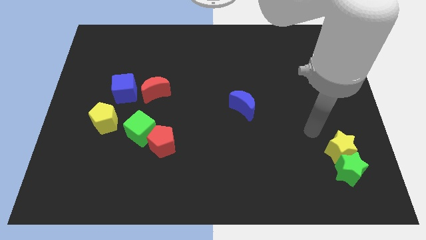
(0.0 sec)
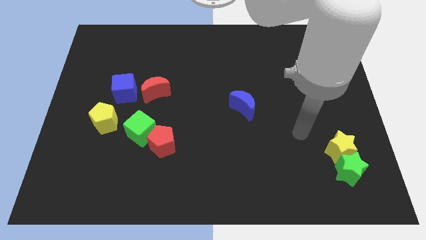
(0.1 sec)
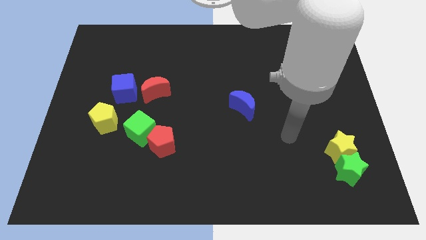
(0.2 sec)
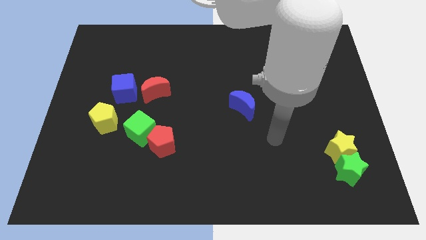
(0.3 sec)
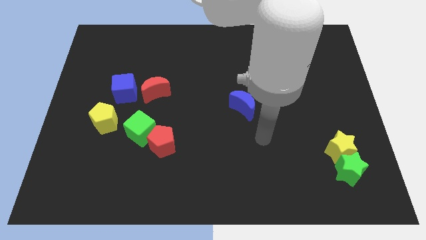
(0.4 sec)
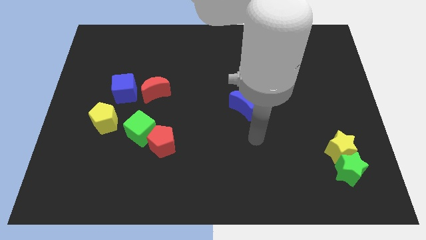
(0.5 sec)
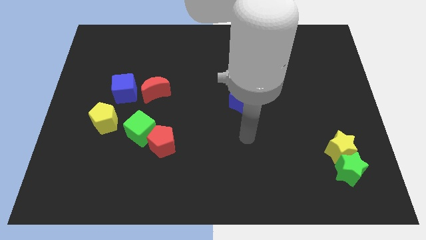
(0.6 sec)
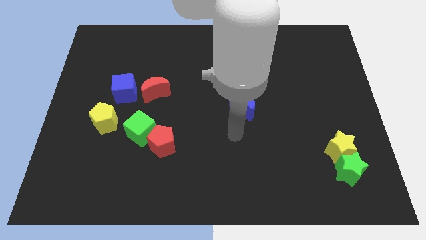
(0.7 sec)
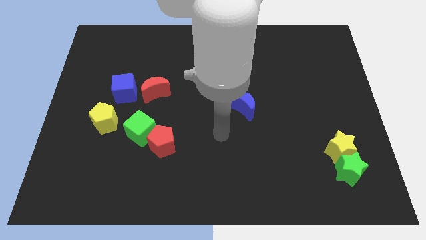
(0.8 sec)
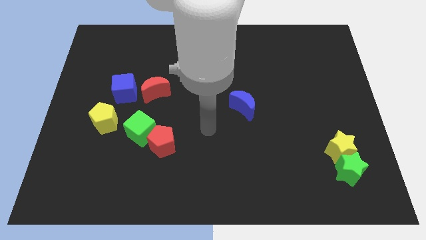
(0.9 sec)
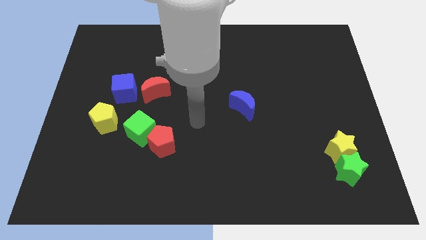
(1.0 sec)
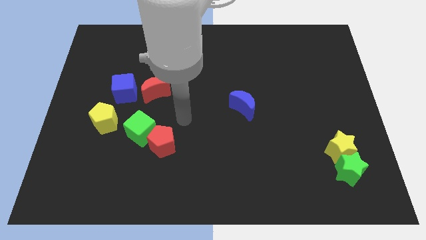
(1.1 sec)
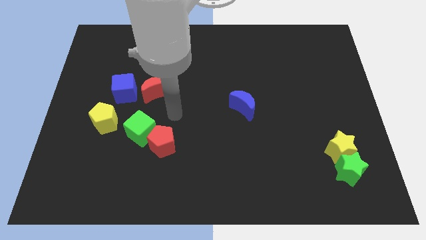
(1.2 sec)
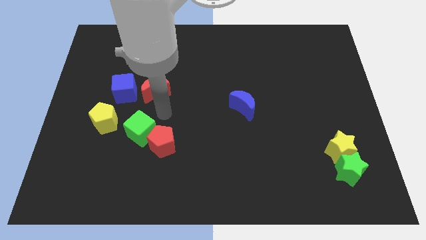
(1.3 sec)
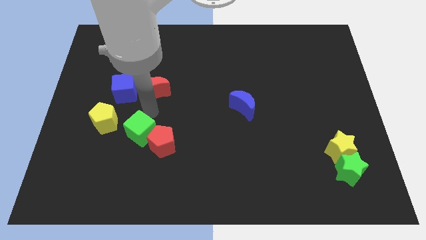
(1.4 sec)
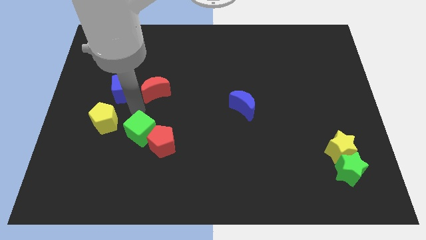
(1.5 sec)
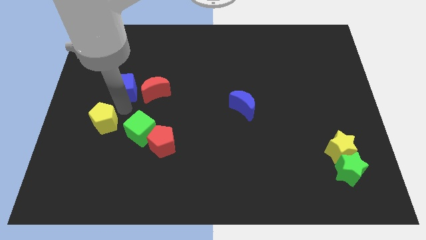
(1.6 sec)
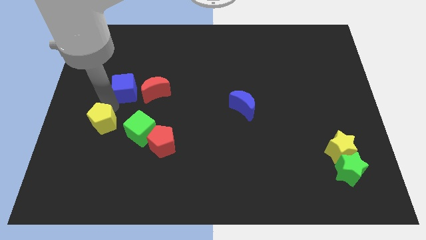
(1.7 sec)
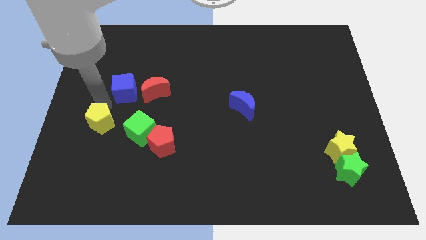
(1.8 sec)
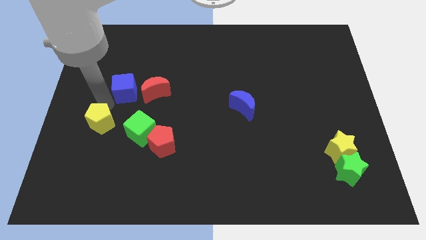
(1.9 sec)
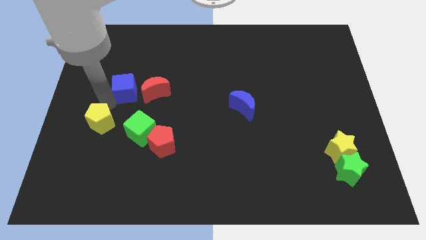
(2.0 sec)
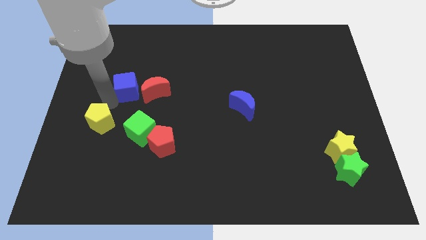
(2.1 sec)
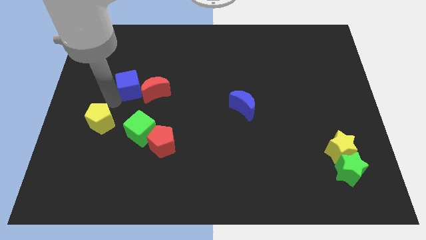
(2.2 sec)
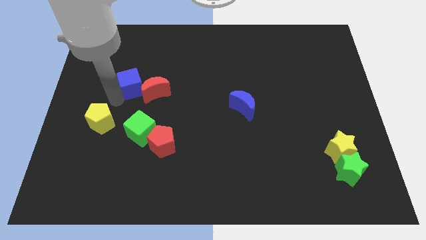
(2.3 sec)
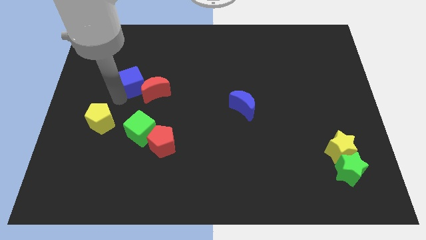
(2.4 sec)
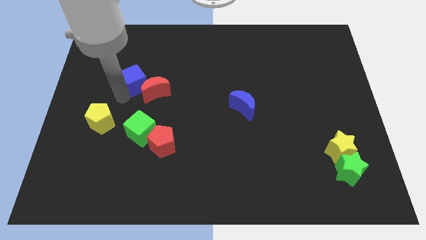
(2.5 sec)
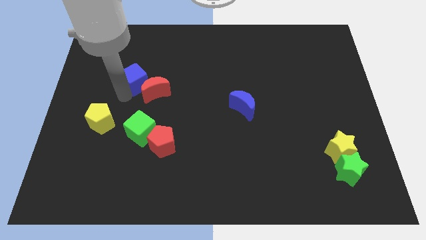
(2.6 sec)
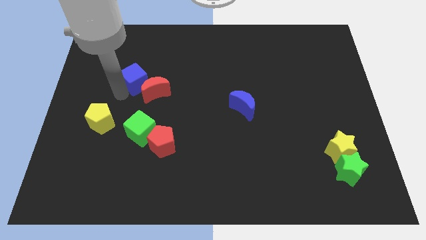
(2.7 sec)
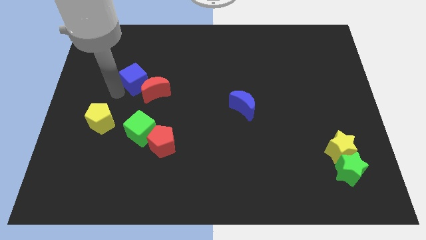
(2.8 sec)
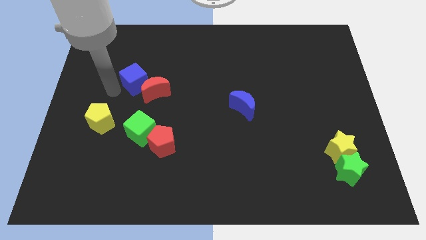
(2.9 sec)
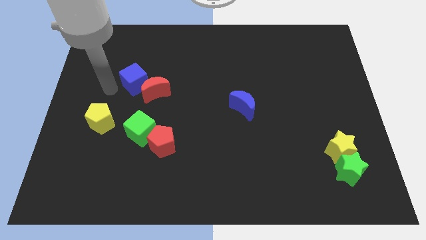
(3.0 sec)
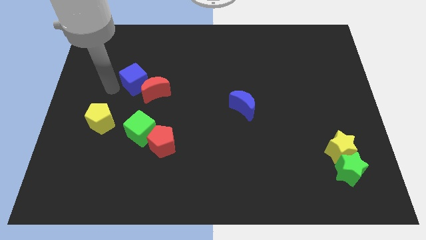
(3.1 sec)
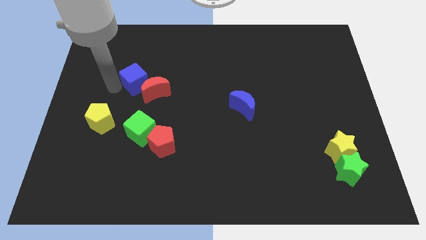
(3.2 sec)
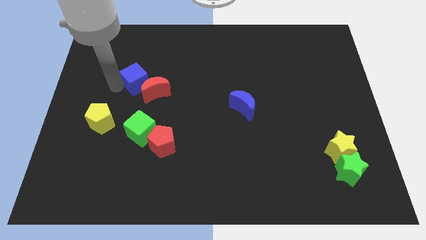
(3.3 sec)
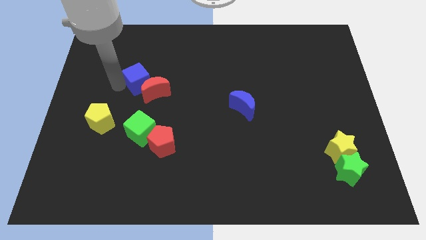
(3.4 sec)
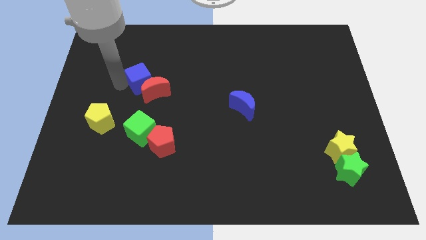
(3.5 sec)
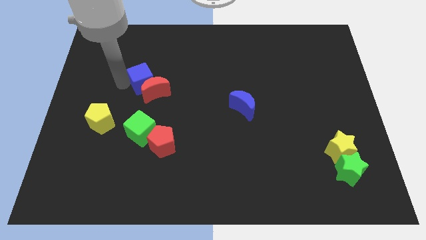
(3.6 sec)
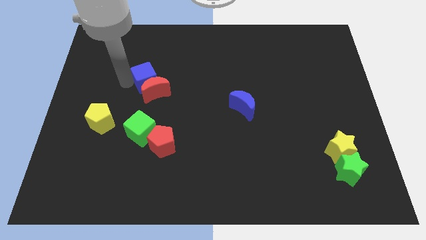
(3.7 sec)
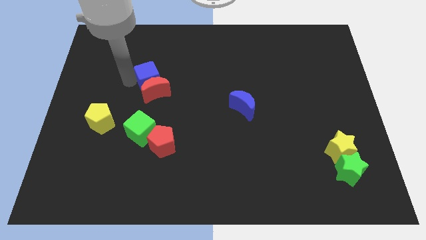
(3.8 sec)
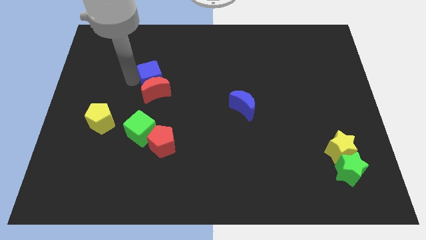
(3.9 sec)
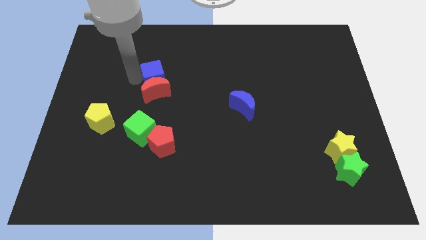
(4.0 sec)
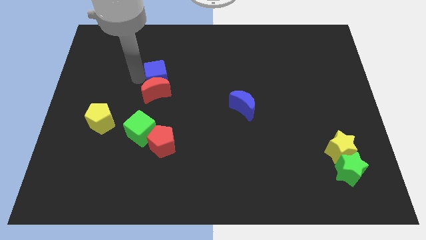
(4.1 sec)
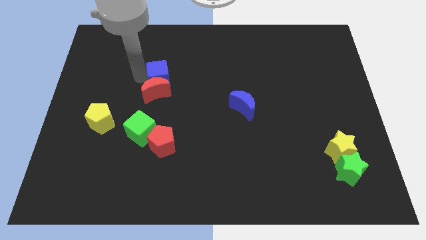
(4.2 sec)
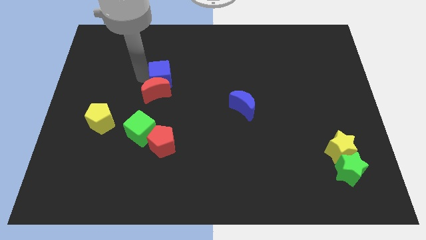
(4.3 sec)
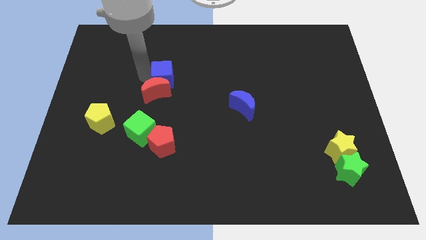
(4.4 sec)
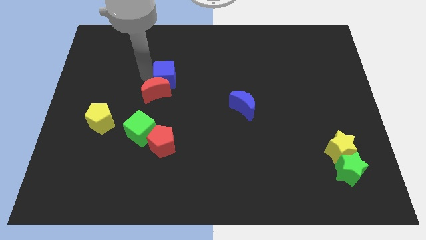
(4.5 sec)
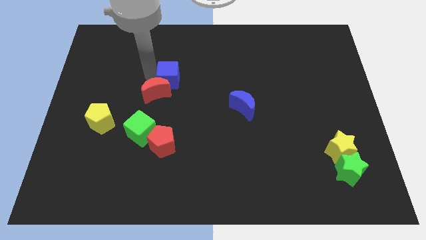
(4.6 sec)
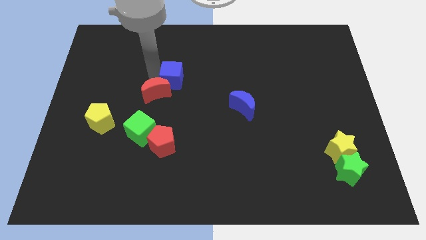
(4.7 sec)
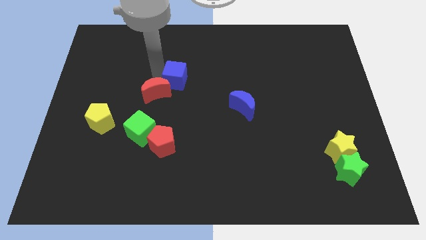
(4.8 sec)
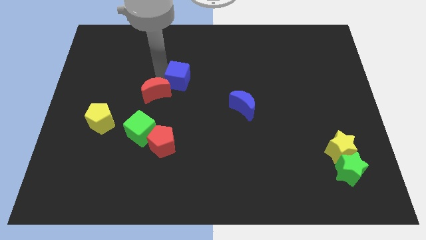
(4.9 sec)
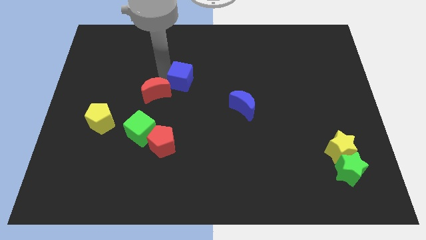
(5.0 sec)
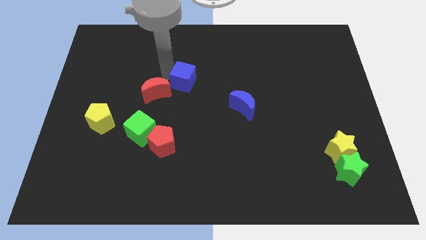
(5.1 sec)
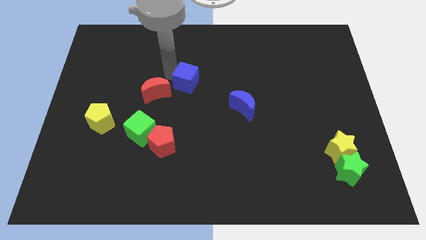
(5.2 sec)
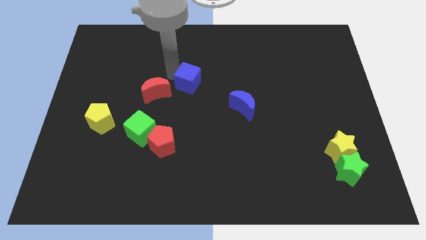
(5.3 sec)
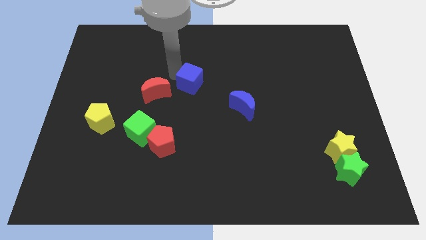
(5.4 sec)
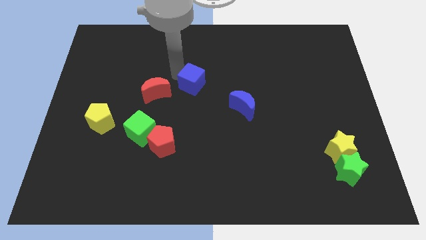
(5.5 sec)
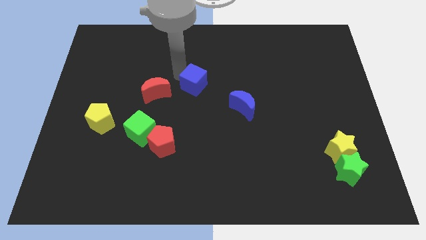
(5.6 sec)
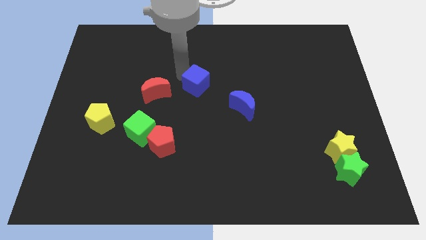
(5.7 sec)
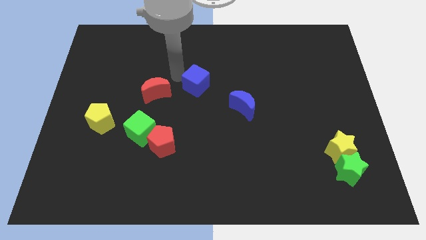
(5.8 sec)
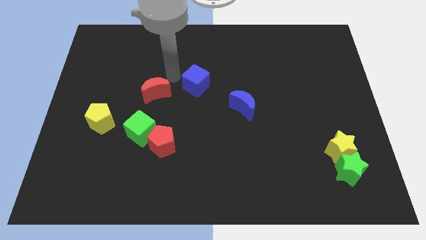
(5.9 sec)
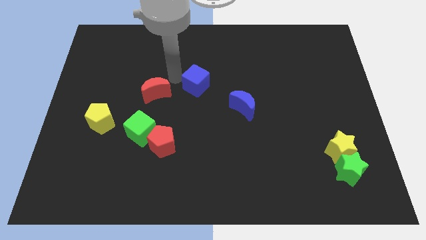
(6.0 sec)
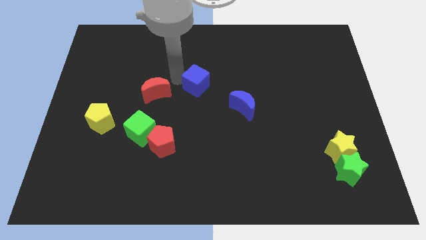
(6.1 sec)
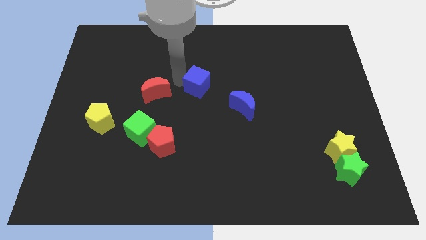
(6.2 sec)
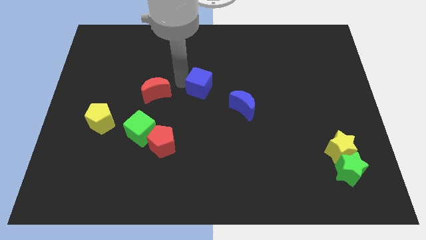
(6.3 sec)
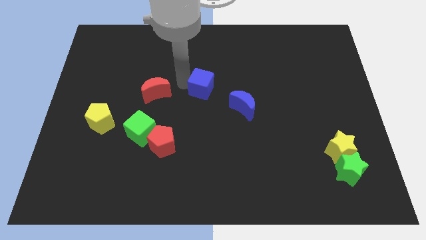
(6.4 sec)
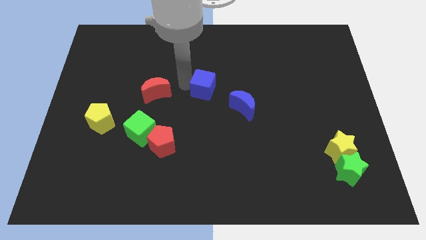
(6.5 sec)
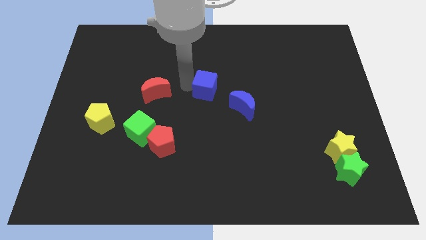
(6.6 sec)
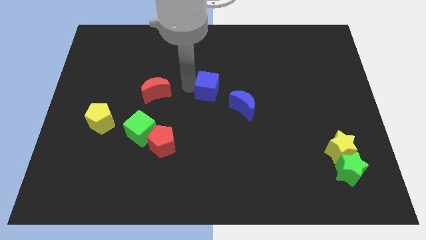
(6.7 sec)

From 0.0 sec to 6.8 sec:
push the blue cube right

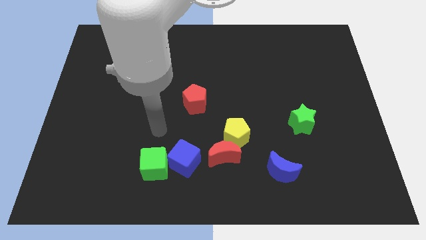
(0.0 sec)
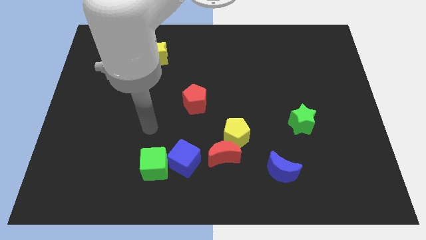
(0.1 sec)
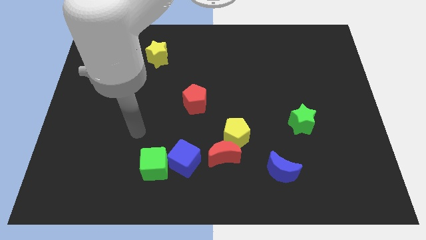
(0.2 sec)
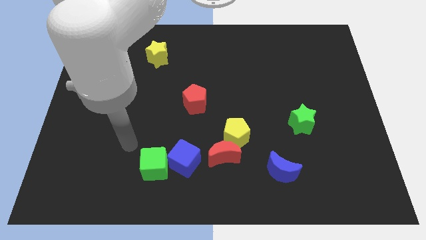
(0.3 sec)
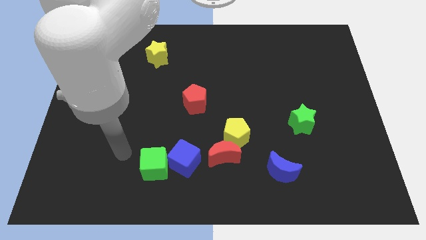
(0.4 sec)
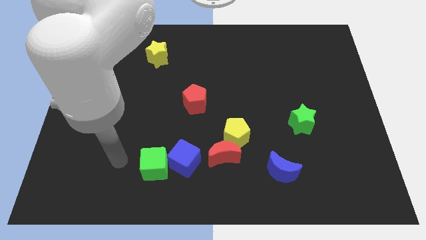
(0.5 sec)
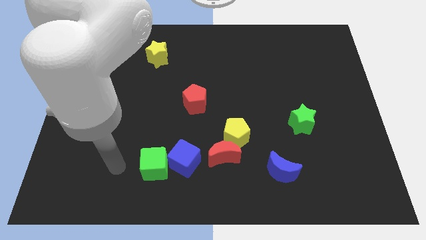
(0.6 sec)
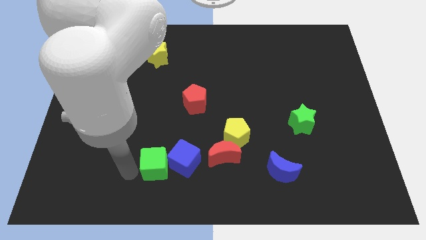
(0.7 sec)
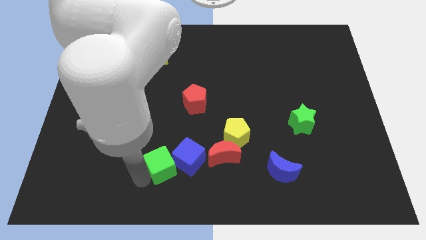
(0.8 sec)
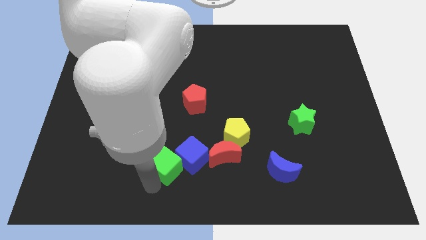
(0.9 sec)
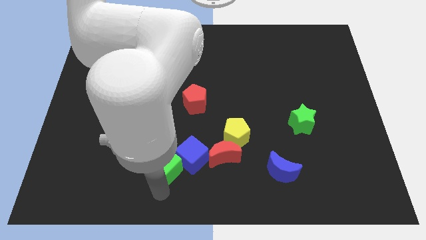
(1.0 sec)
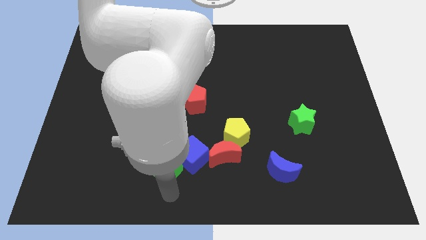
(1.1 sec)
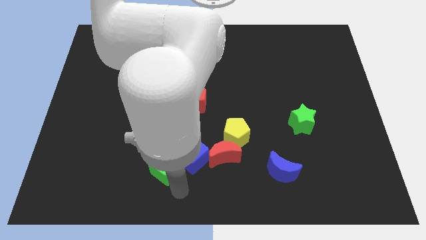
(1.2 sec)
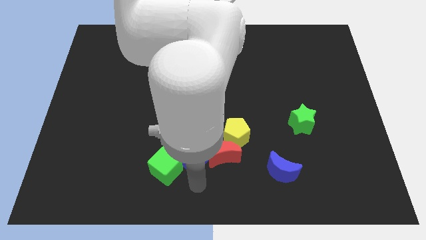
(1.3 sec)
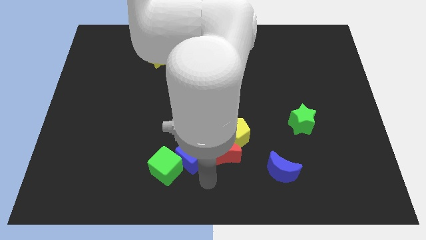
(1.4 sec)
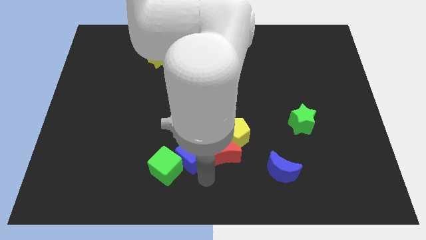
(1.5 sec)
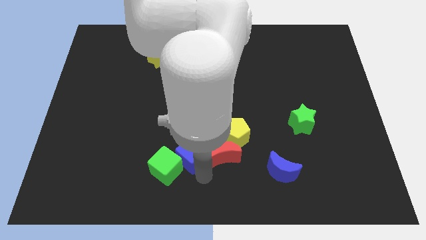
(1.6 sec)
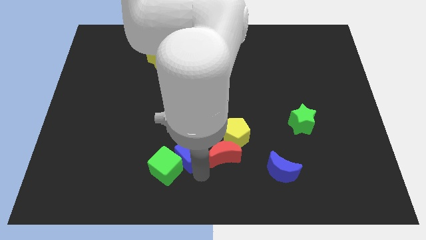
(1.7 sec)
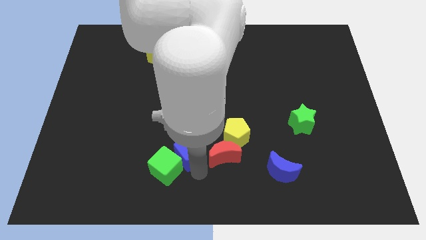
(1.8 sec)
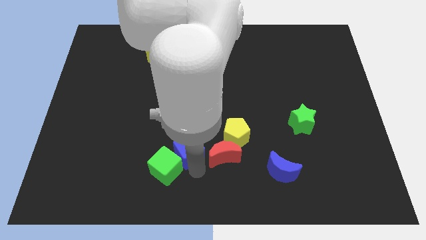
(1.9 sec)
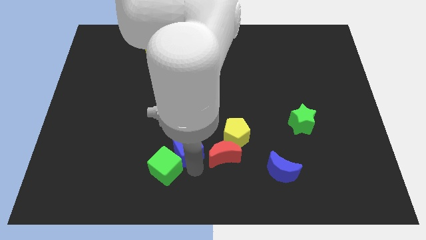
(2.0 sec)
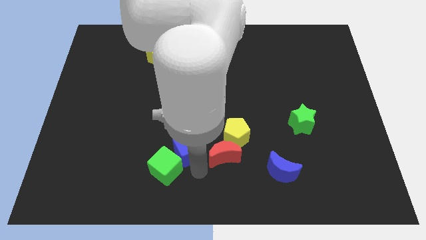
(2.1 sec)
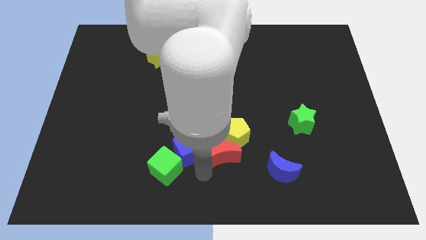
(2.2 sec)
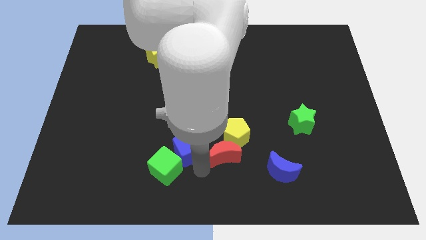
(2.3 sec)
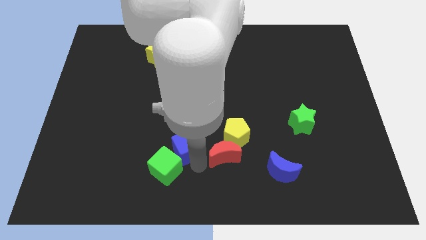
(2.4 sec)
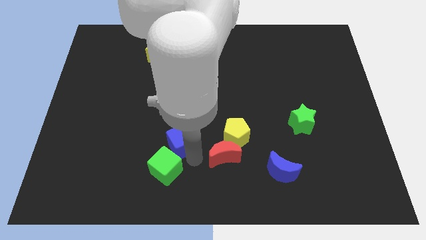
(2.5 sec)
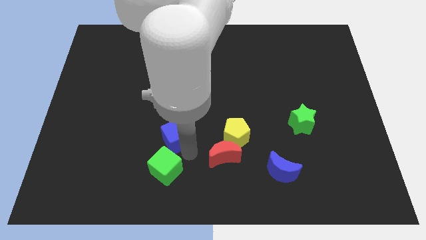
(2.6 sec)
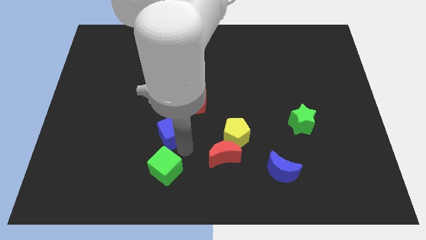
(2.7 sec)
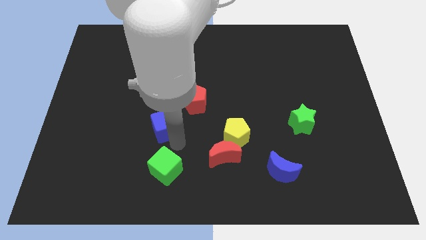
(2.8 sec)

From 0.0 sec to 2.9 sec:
slightly move the blue cube upwards
